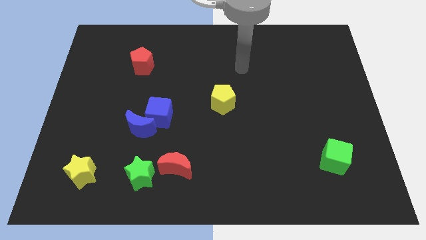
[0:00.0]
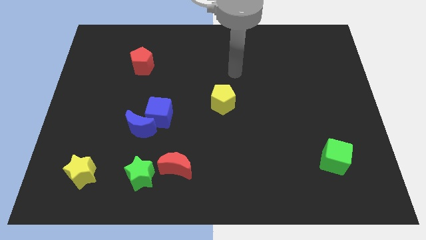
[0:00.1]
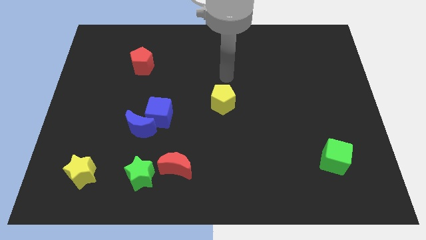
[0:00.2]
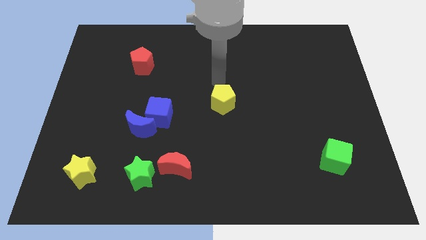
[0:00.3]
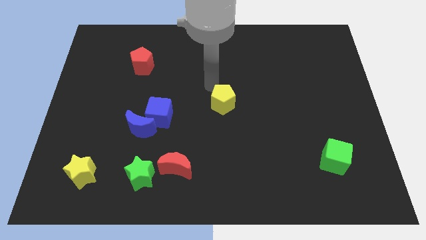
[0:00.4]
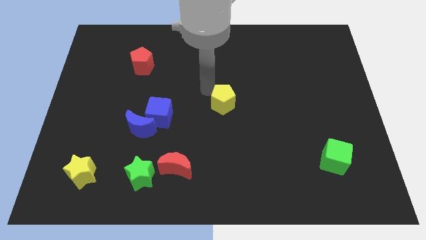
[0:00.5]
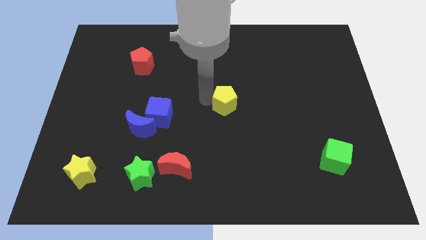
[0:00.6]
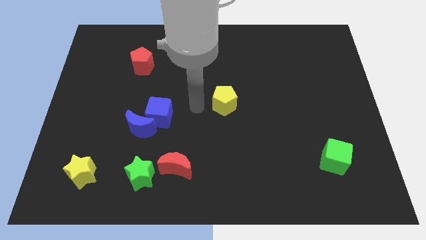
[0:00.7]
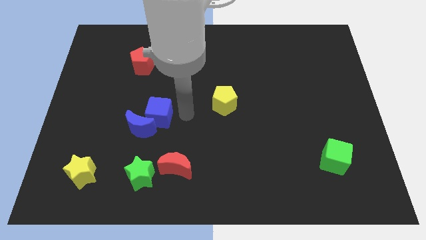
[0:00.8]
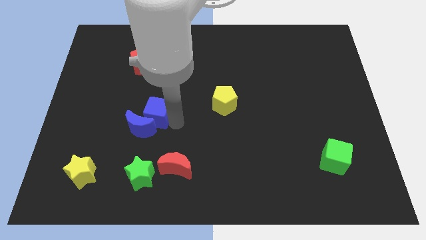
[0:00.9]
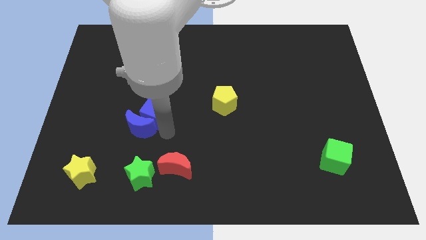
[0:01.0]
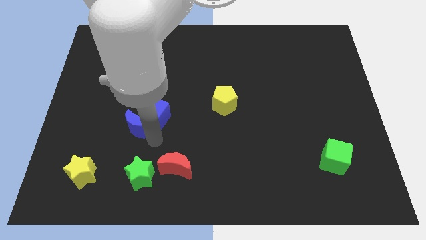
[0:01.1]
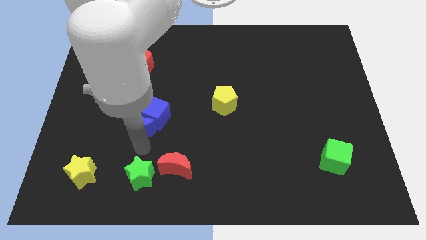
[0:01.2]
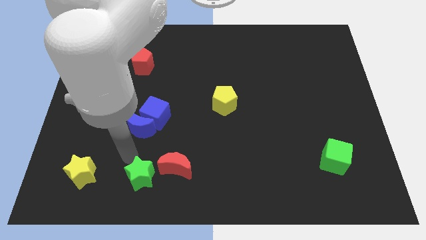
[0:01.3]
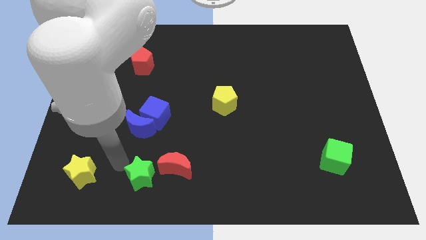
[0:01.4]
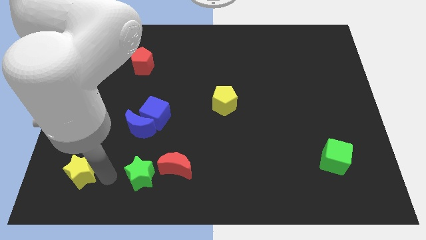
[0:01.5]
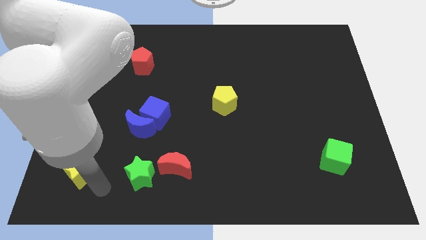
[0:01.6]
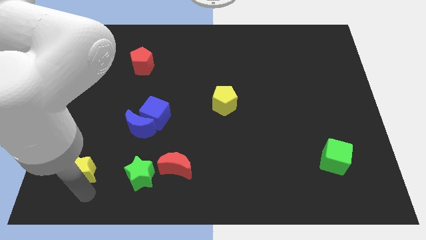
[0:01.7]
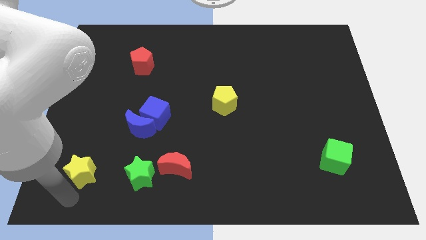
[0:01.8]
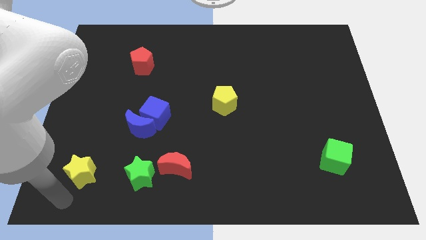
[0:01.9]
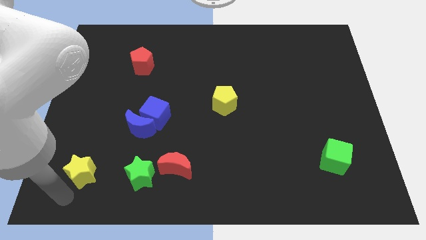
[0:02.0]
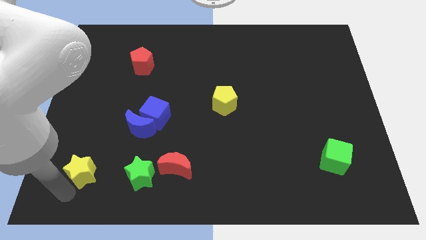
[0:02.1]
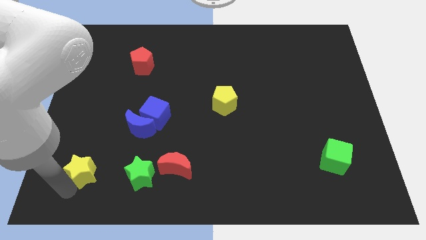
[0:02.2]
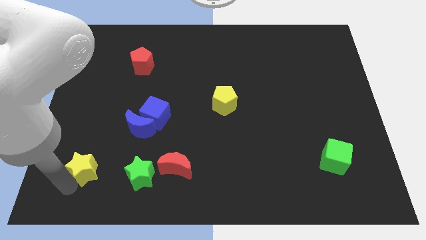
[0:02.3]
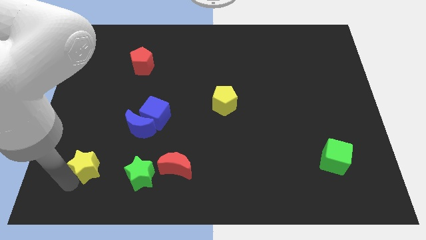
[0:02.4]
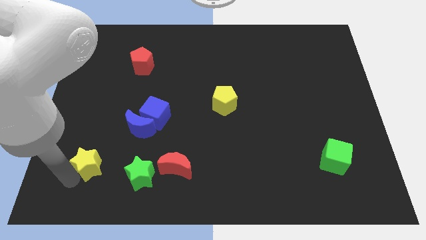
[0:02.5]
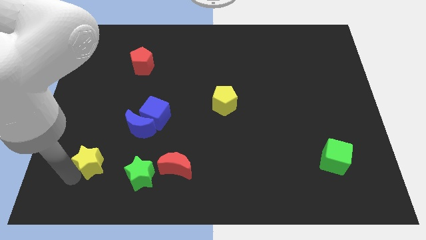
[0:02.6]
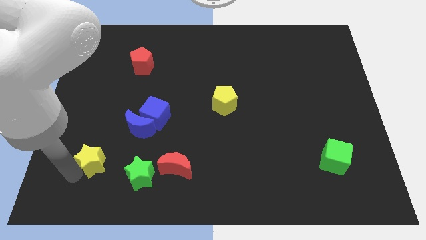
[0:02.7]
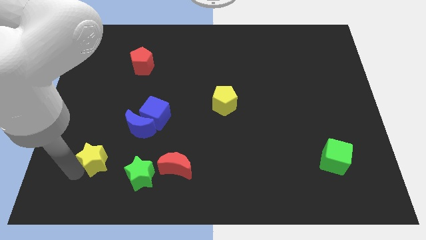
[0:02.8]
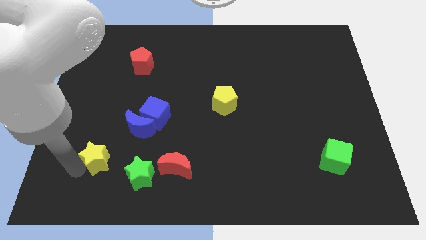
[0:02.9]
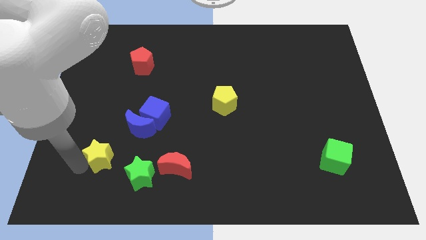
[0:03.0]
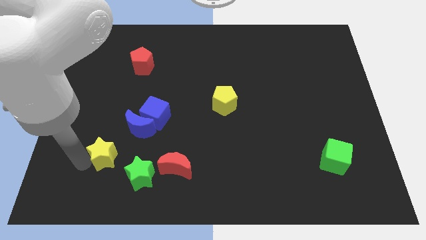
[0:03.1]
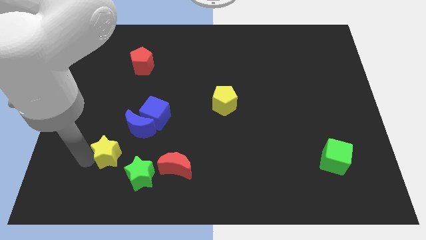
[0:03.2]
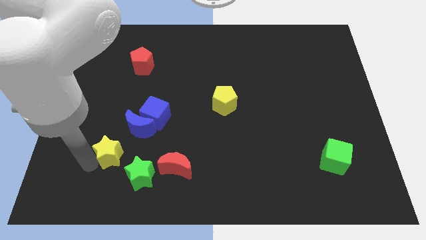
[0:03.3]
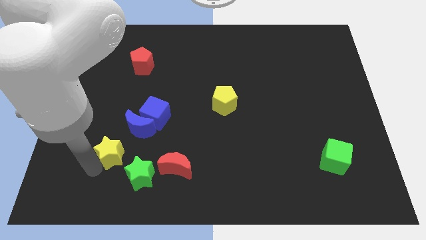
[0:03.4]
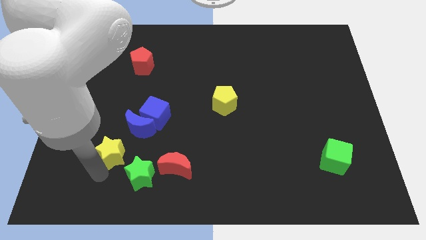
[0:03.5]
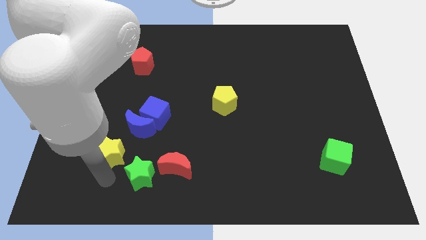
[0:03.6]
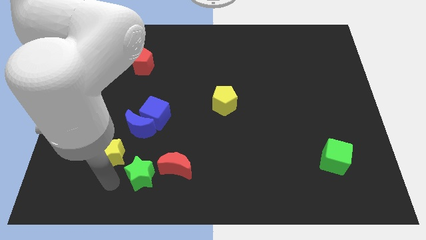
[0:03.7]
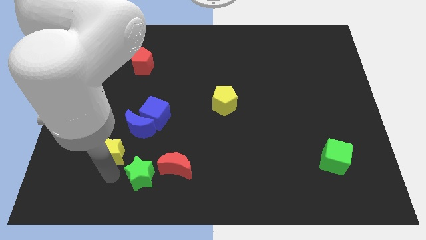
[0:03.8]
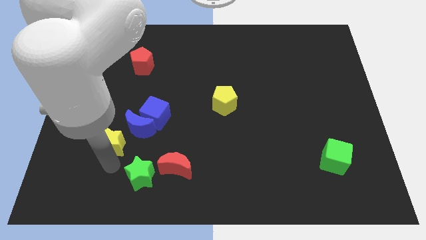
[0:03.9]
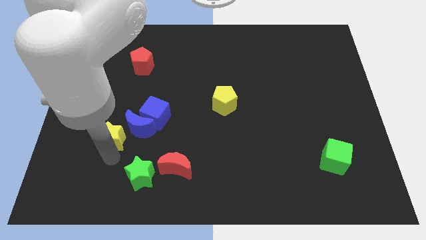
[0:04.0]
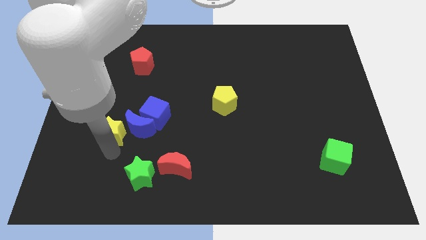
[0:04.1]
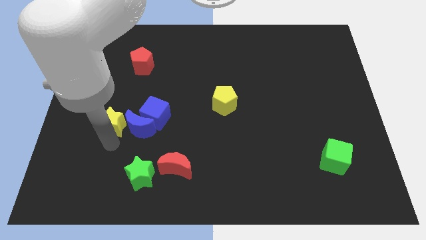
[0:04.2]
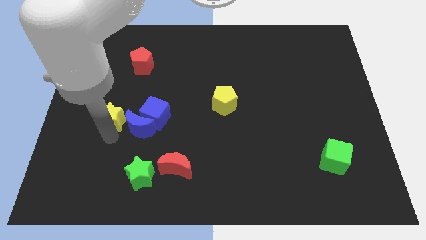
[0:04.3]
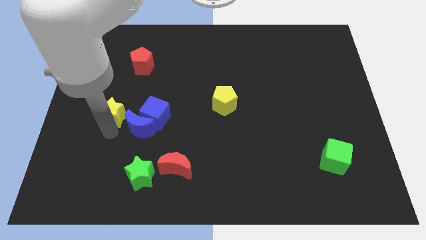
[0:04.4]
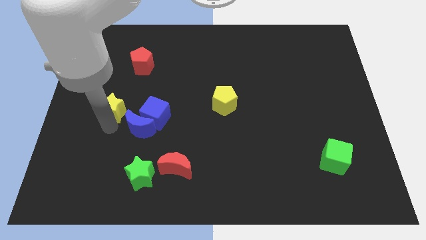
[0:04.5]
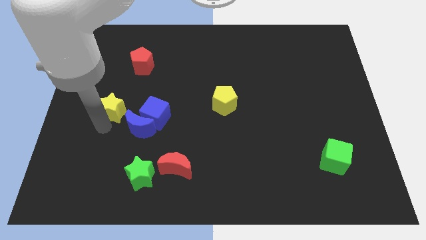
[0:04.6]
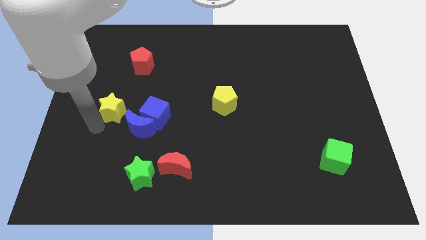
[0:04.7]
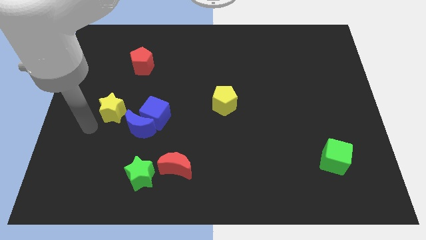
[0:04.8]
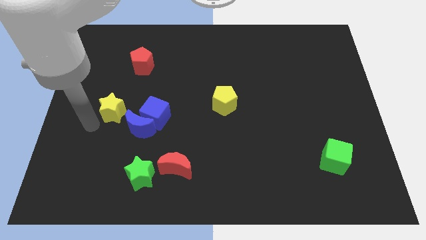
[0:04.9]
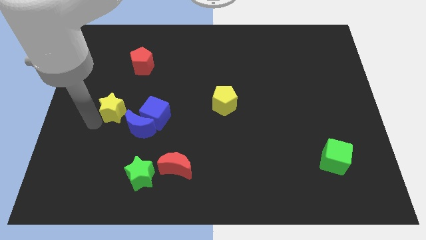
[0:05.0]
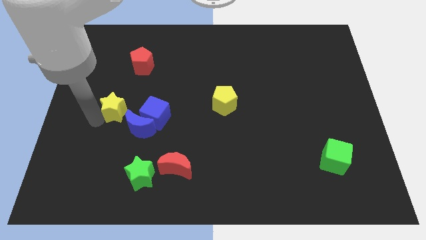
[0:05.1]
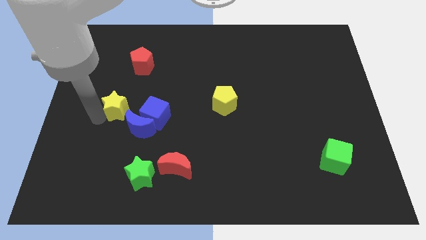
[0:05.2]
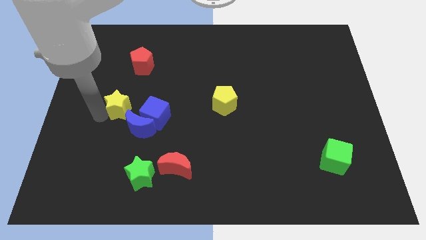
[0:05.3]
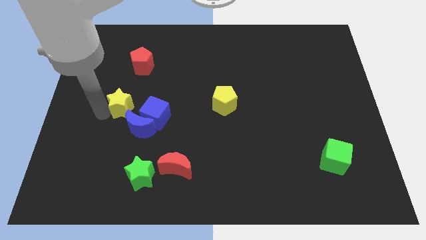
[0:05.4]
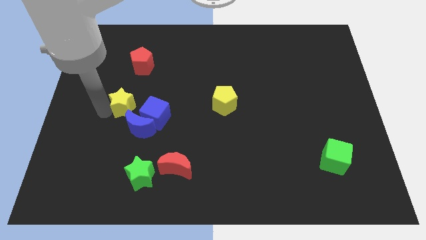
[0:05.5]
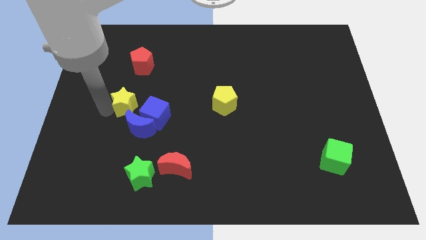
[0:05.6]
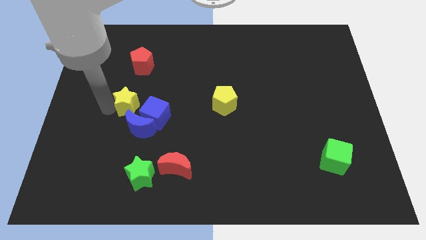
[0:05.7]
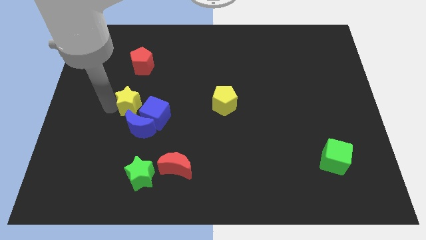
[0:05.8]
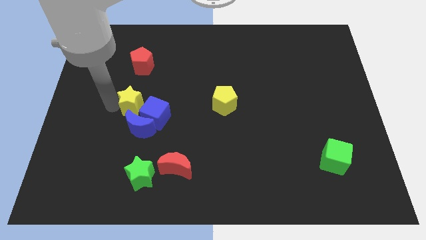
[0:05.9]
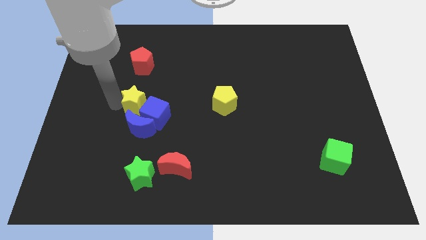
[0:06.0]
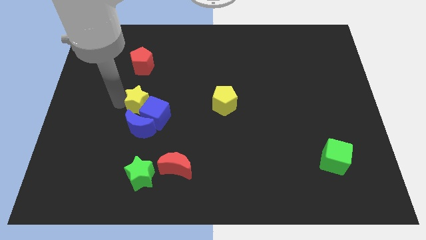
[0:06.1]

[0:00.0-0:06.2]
push the yellow star to the top side of the blue cube

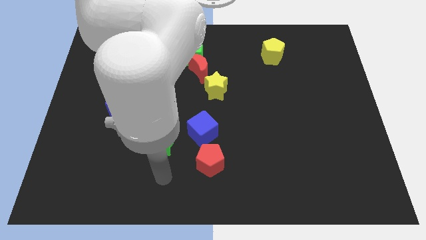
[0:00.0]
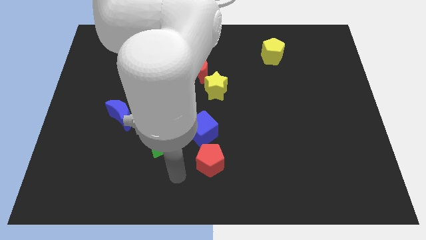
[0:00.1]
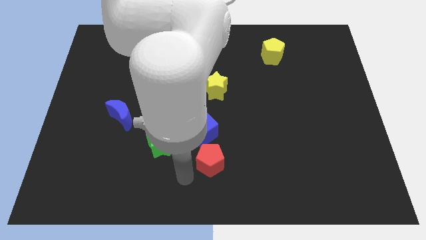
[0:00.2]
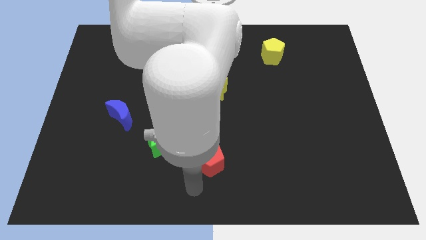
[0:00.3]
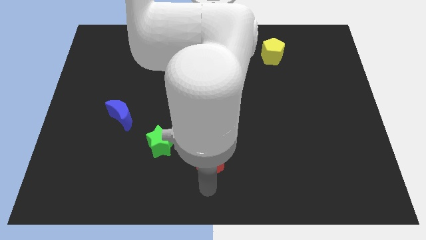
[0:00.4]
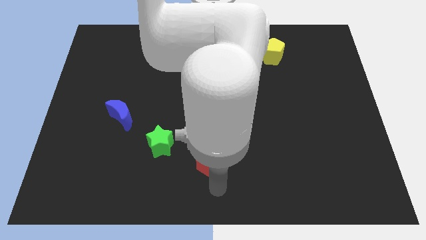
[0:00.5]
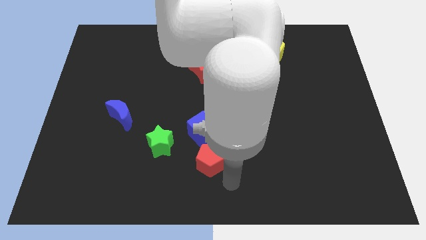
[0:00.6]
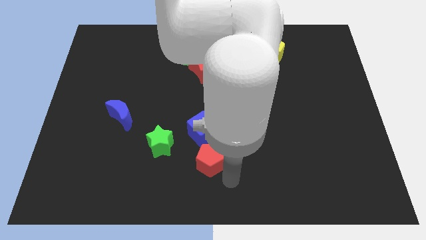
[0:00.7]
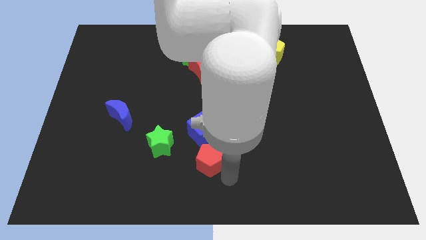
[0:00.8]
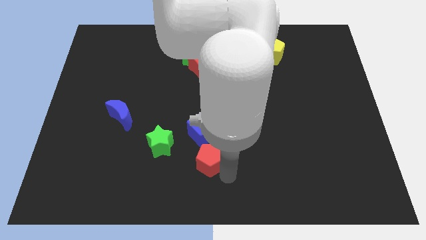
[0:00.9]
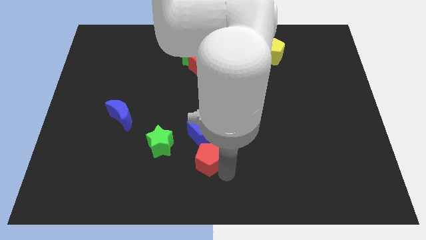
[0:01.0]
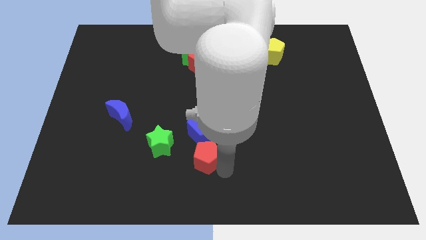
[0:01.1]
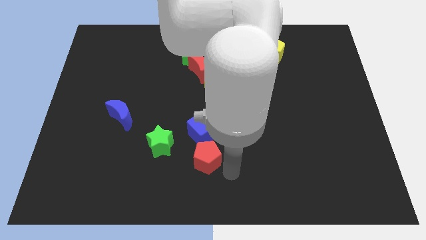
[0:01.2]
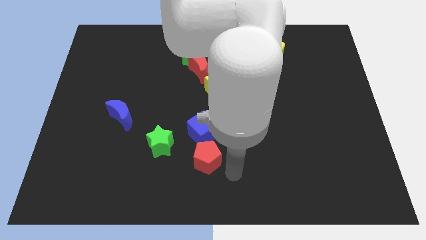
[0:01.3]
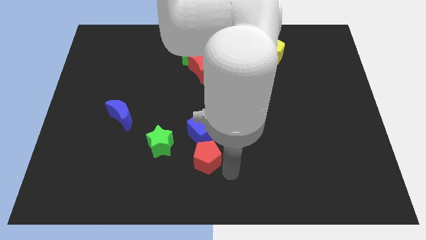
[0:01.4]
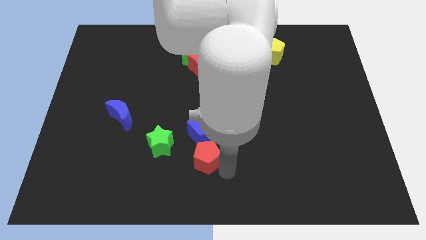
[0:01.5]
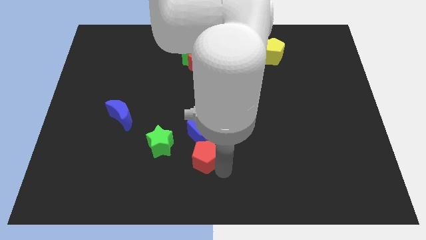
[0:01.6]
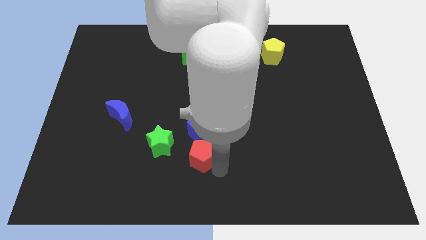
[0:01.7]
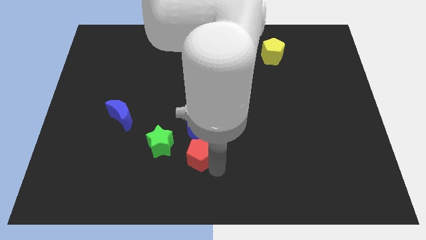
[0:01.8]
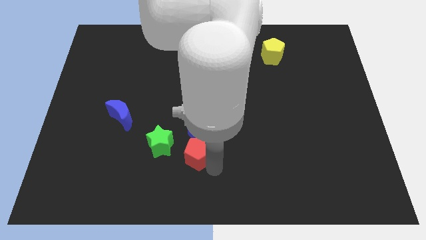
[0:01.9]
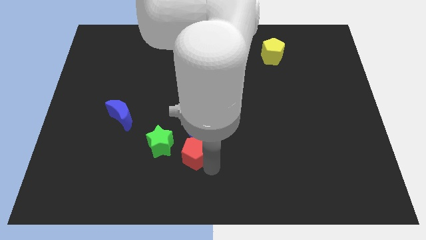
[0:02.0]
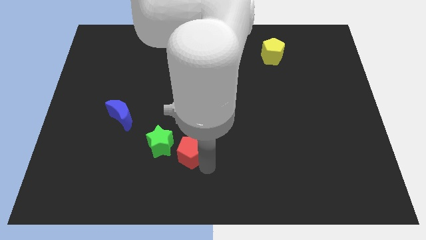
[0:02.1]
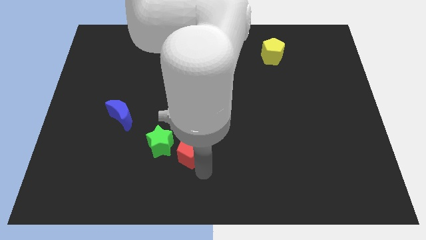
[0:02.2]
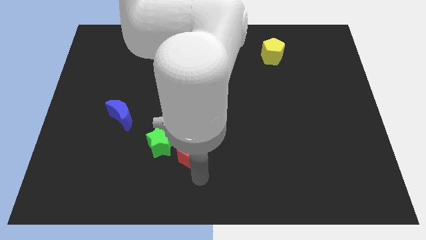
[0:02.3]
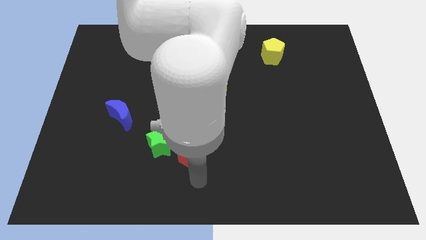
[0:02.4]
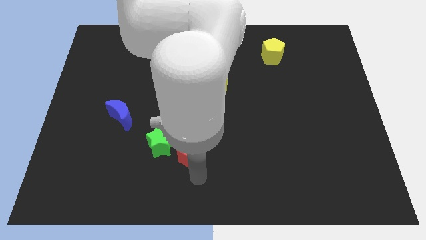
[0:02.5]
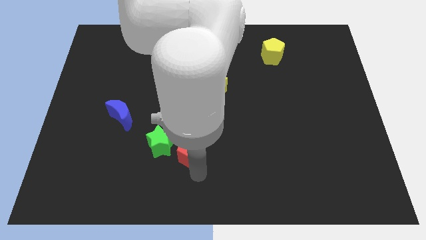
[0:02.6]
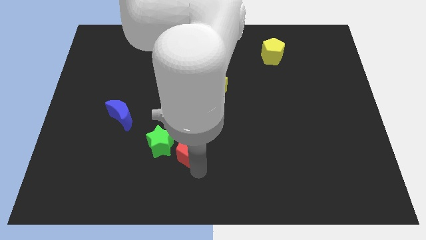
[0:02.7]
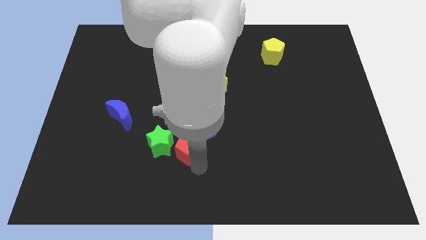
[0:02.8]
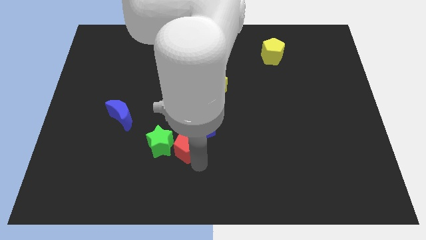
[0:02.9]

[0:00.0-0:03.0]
put the red pentagon to the top right of the green star
